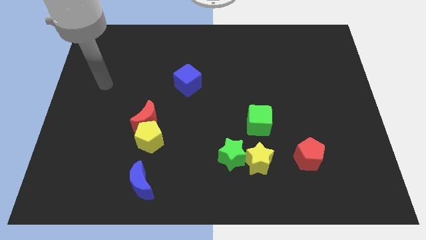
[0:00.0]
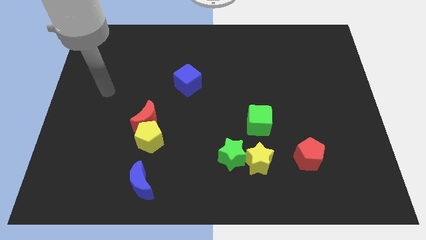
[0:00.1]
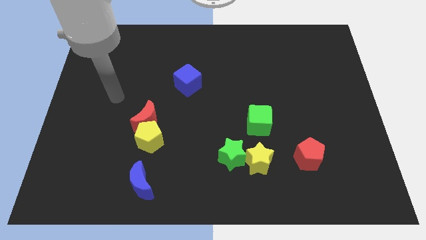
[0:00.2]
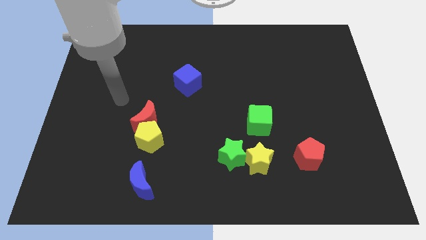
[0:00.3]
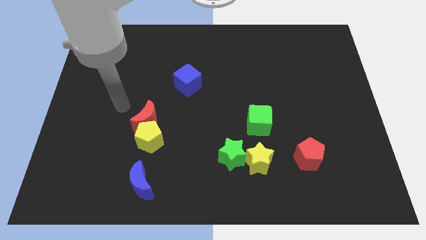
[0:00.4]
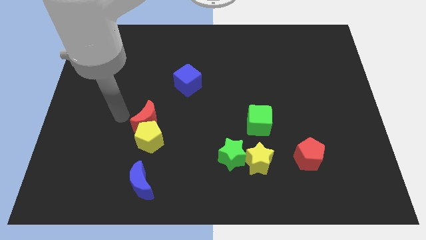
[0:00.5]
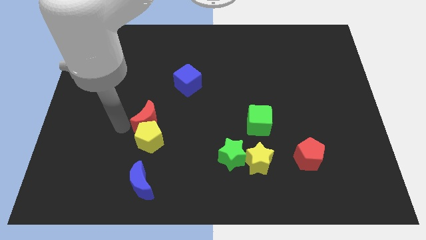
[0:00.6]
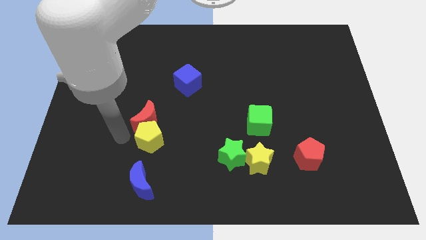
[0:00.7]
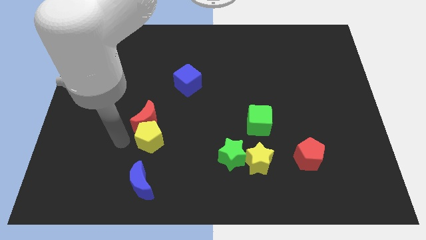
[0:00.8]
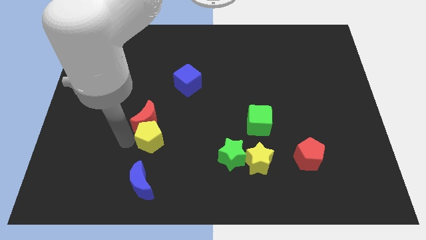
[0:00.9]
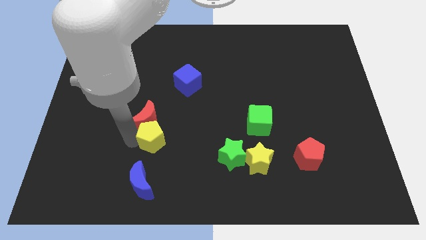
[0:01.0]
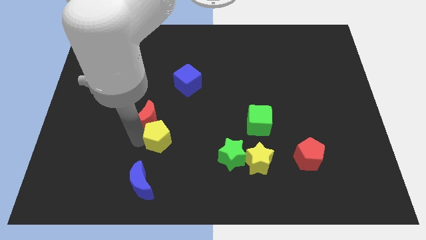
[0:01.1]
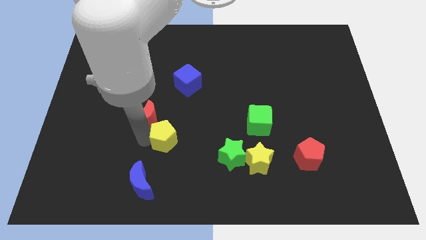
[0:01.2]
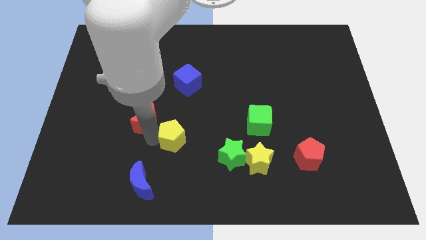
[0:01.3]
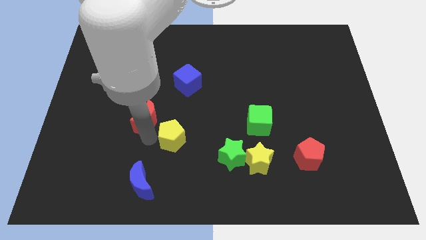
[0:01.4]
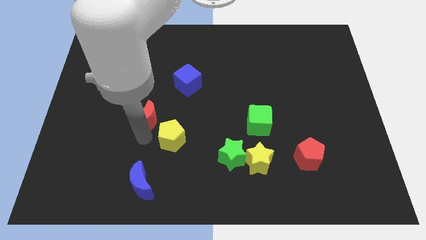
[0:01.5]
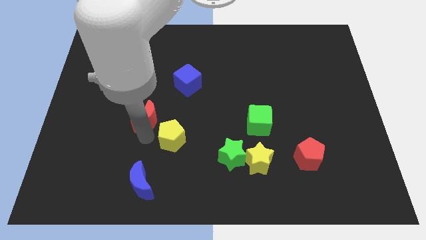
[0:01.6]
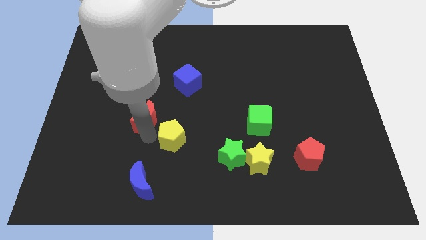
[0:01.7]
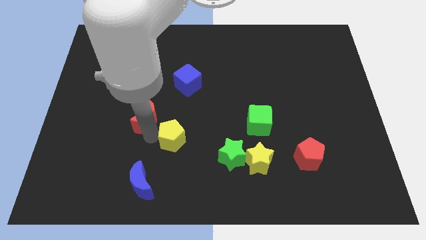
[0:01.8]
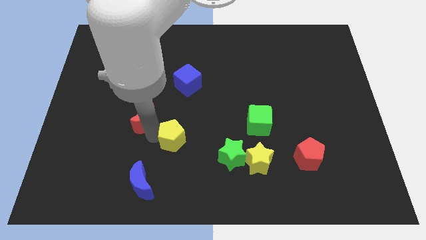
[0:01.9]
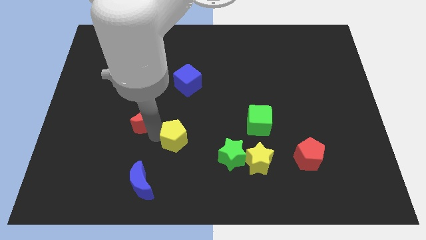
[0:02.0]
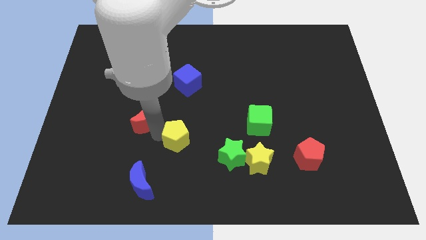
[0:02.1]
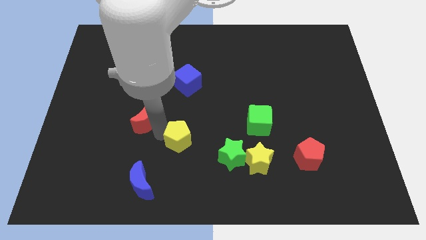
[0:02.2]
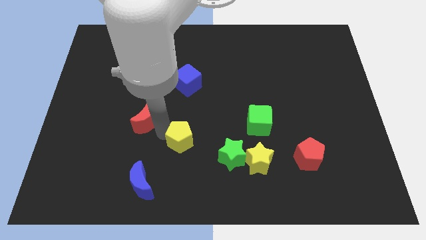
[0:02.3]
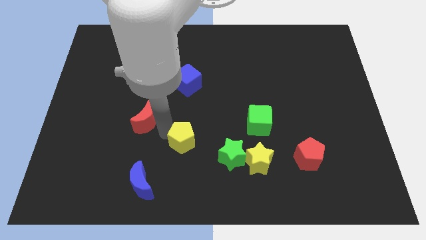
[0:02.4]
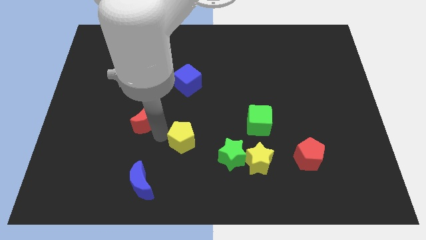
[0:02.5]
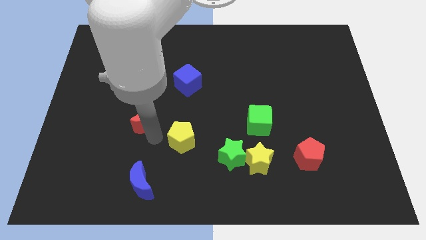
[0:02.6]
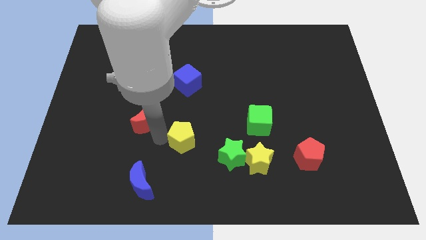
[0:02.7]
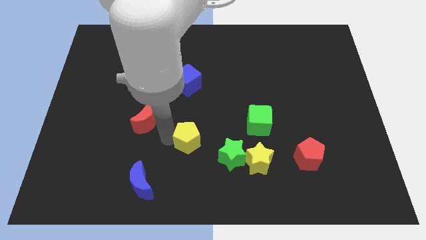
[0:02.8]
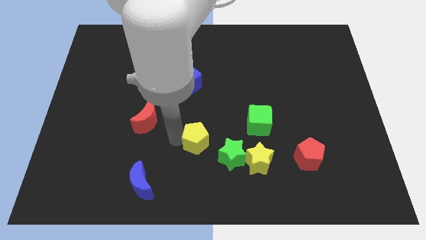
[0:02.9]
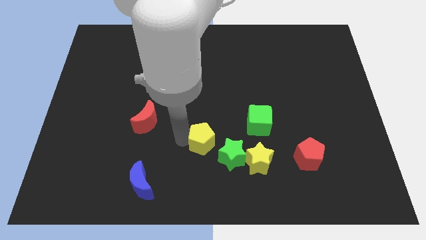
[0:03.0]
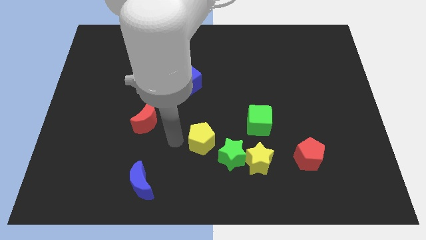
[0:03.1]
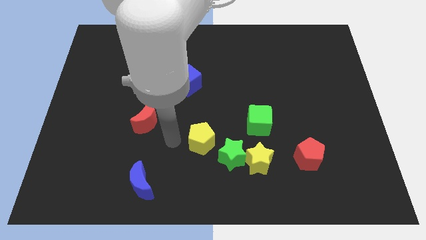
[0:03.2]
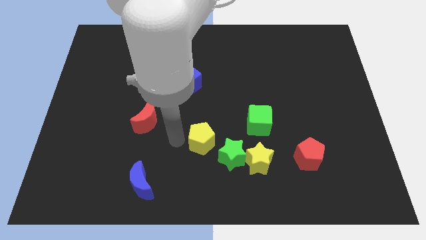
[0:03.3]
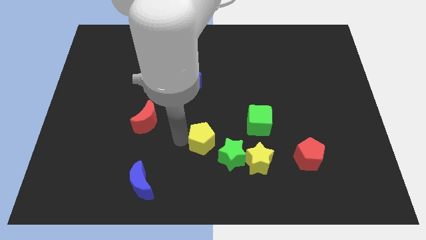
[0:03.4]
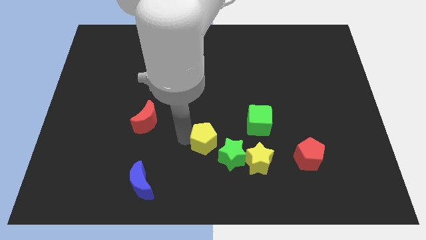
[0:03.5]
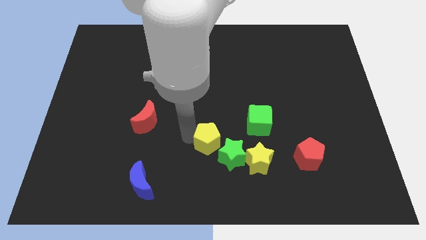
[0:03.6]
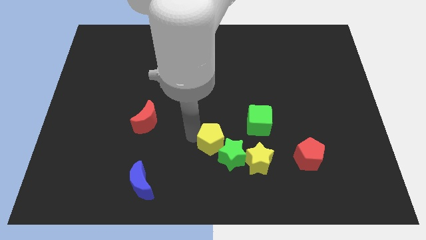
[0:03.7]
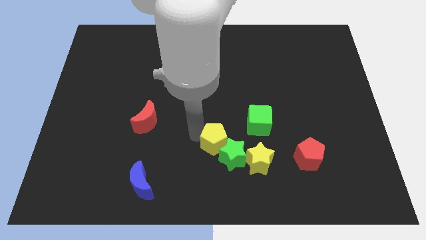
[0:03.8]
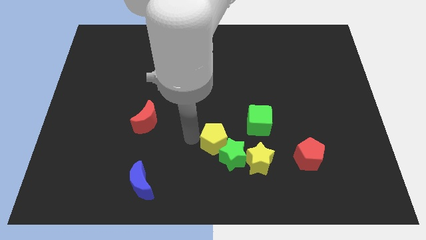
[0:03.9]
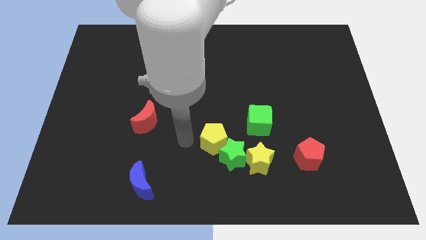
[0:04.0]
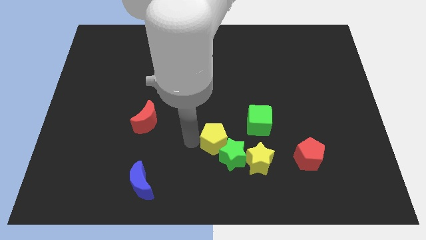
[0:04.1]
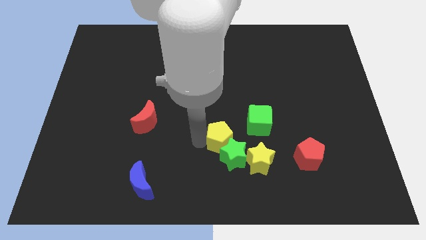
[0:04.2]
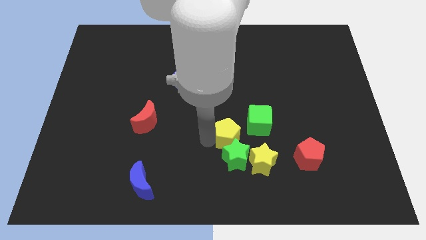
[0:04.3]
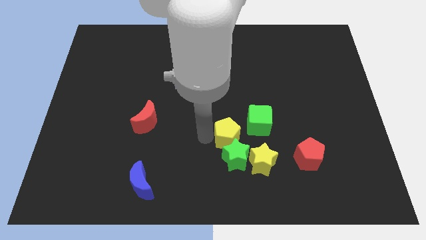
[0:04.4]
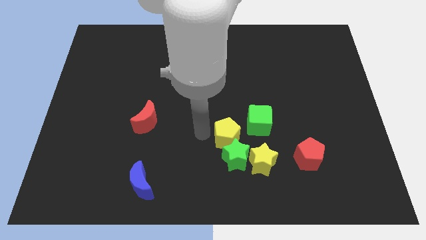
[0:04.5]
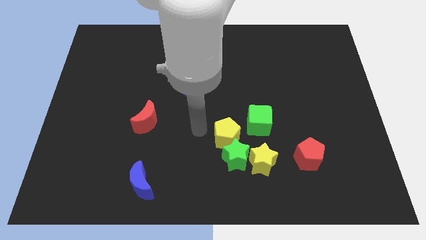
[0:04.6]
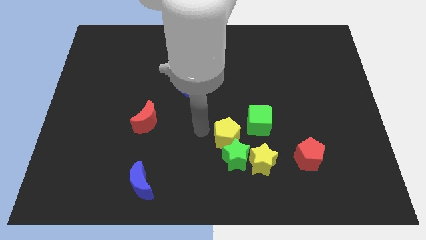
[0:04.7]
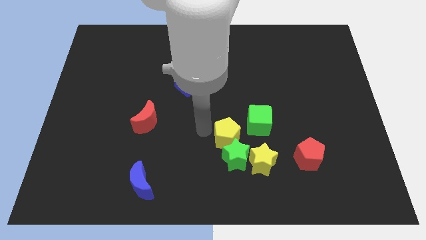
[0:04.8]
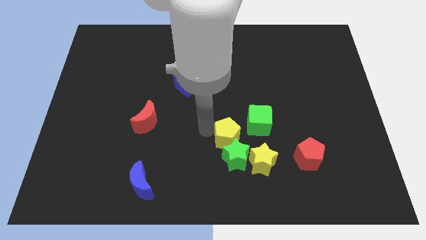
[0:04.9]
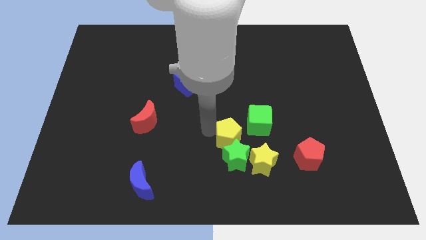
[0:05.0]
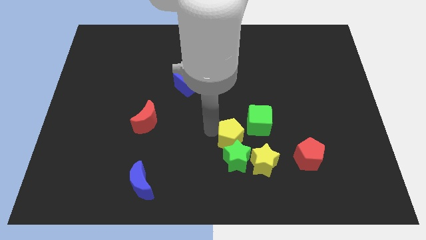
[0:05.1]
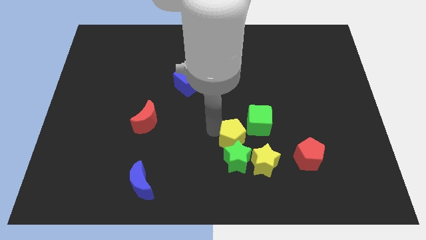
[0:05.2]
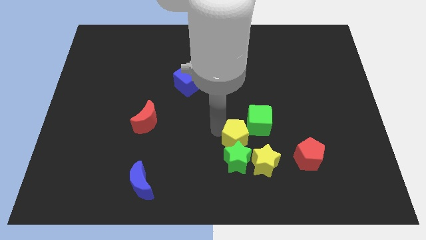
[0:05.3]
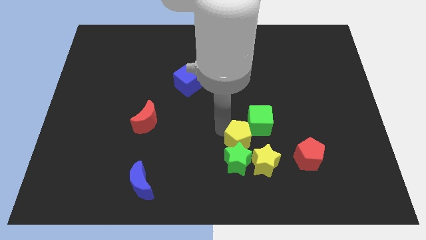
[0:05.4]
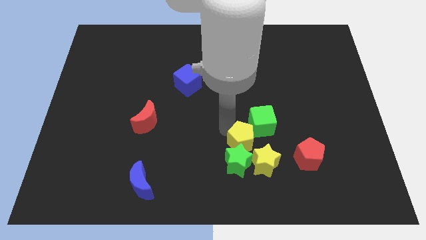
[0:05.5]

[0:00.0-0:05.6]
push the yellow pentagon right

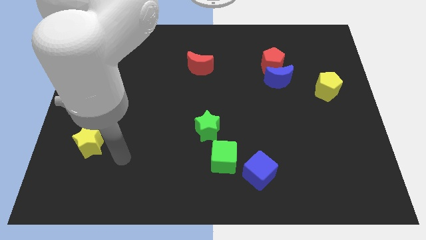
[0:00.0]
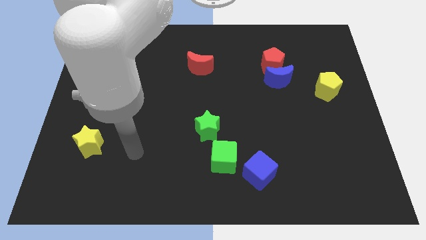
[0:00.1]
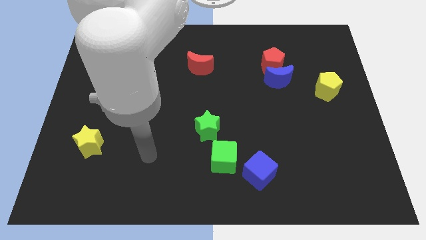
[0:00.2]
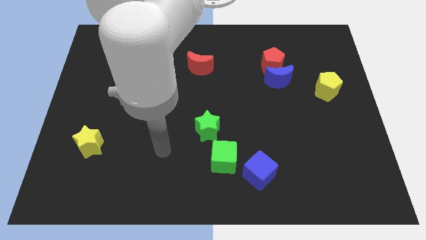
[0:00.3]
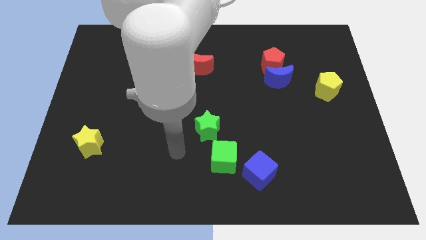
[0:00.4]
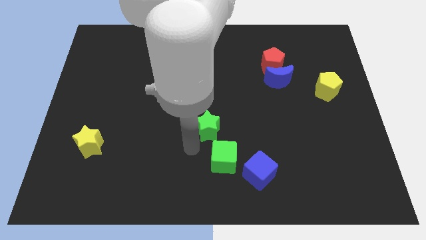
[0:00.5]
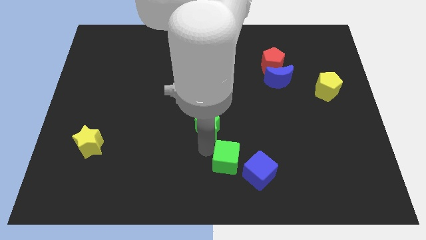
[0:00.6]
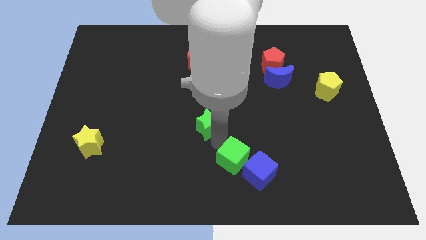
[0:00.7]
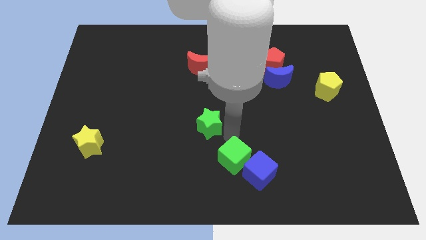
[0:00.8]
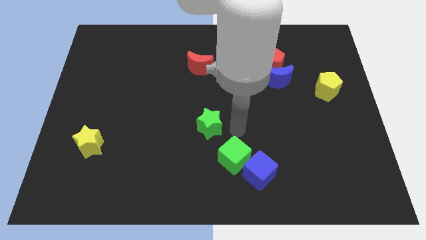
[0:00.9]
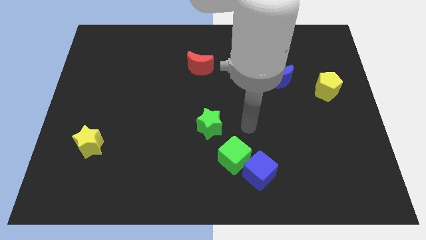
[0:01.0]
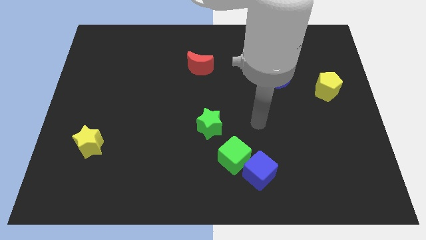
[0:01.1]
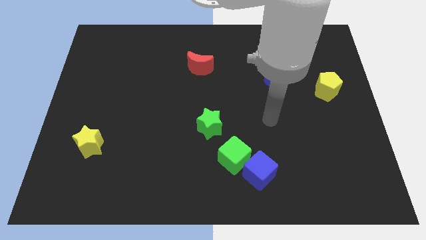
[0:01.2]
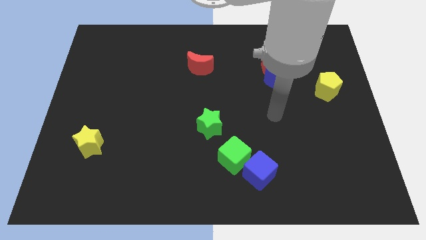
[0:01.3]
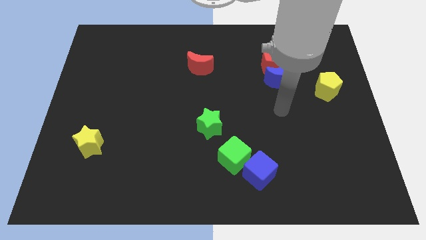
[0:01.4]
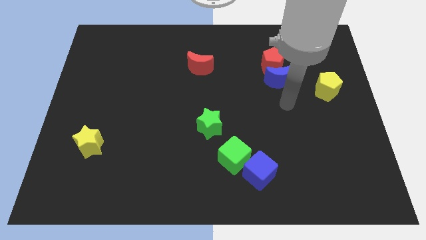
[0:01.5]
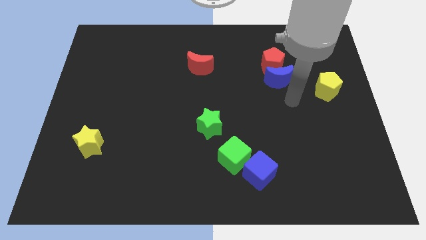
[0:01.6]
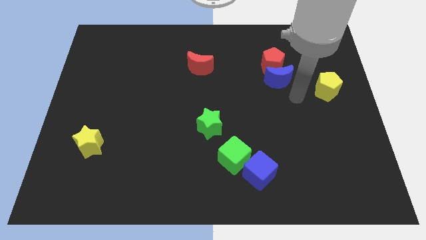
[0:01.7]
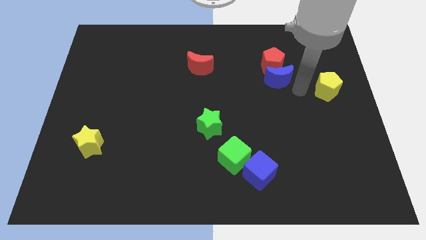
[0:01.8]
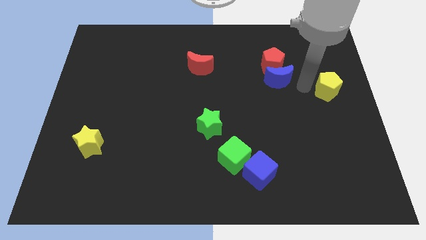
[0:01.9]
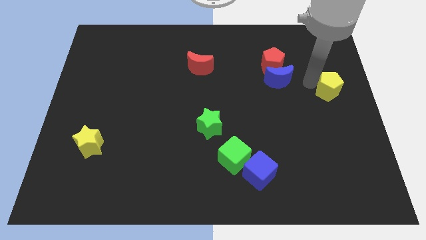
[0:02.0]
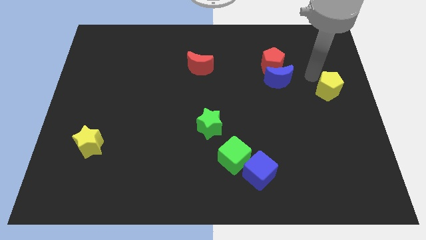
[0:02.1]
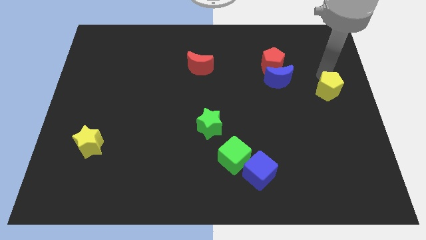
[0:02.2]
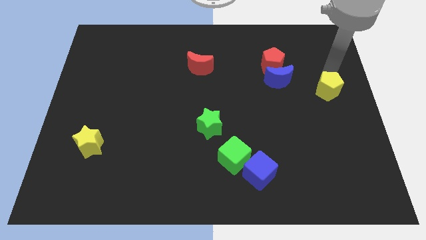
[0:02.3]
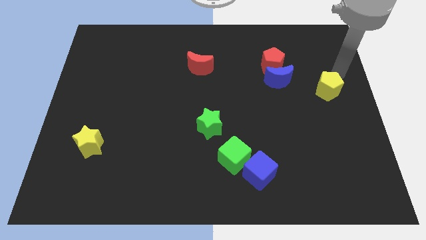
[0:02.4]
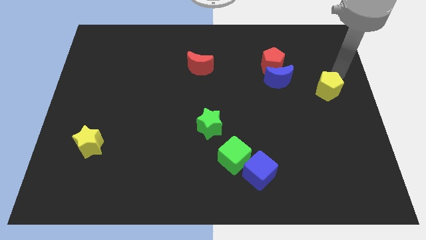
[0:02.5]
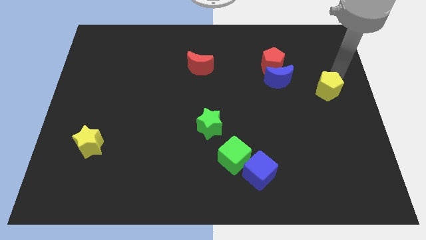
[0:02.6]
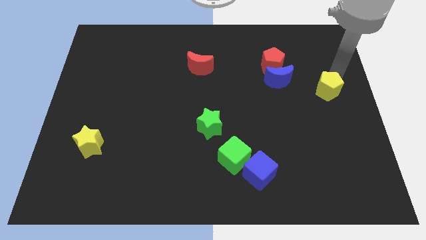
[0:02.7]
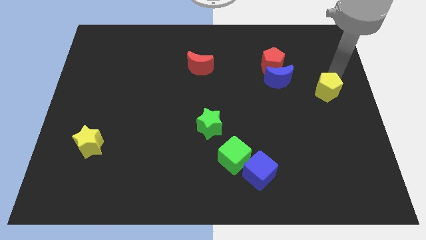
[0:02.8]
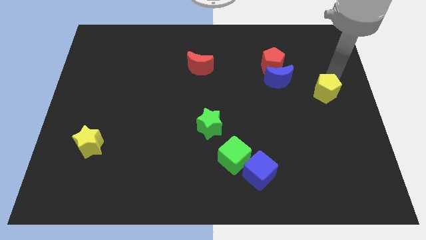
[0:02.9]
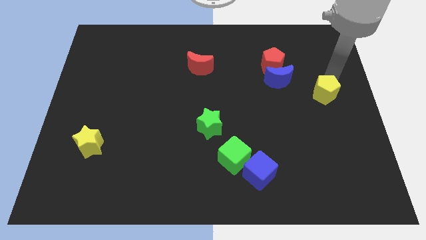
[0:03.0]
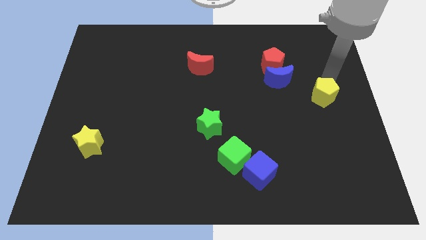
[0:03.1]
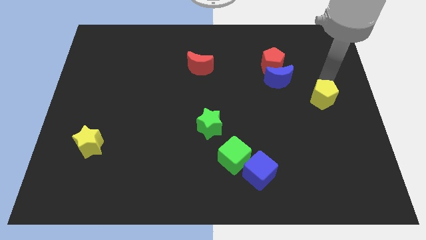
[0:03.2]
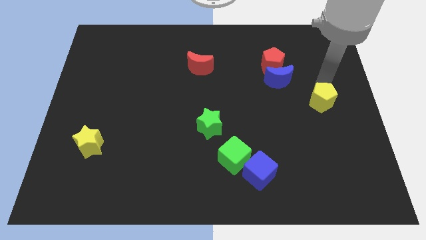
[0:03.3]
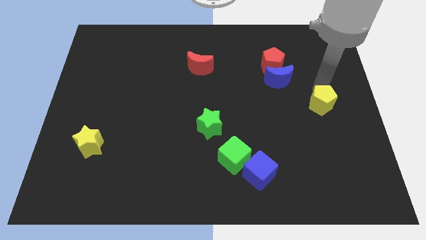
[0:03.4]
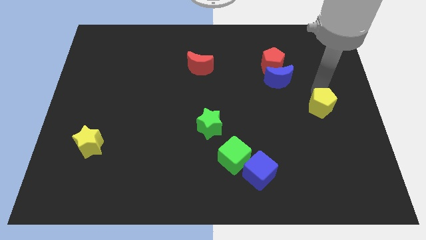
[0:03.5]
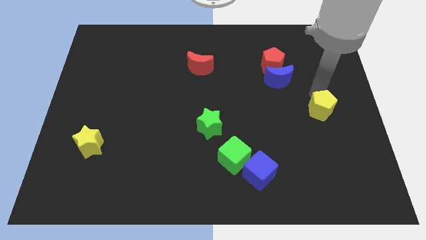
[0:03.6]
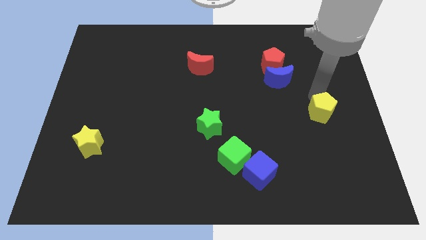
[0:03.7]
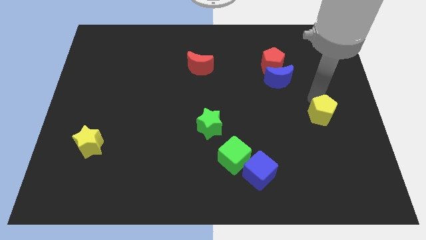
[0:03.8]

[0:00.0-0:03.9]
slide the yellow pentagon a little bit diagonally downwards and to the left
